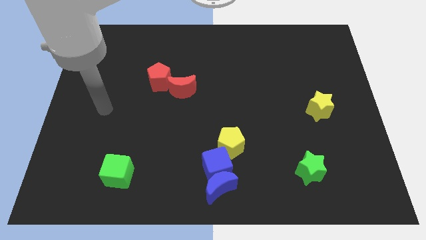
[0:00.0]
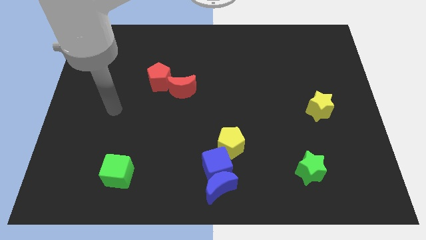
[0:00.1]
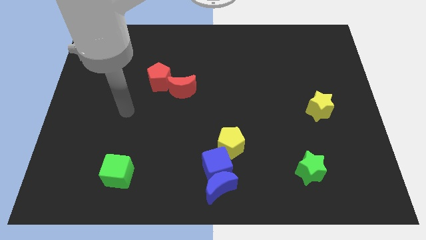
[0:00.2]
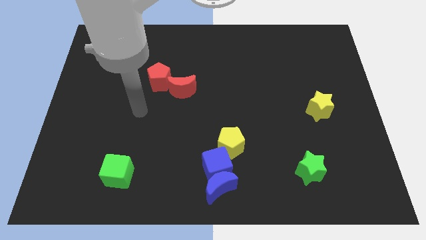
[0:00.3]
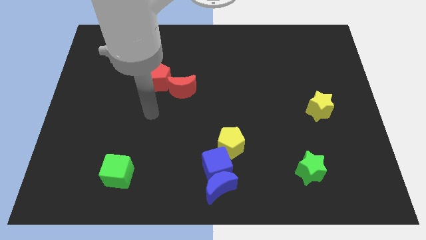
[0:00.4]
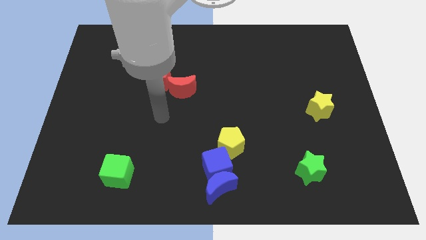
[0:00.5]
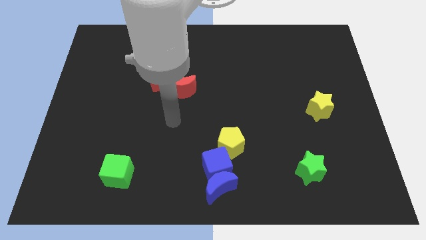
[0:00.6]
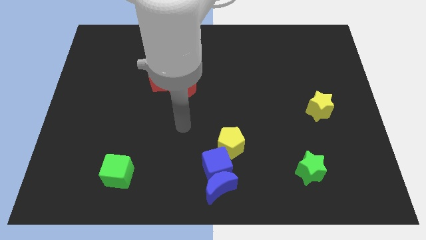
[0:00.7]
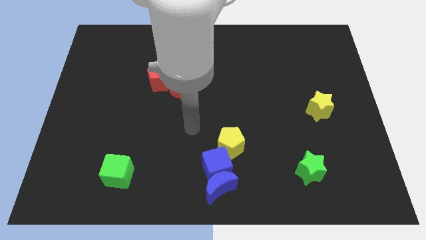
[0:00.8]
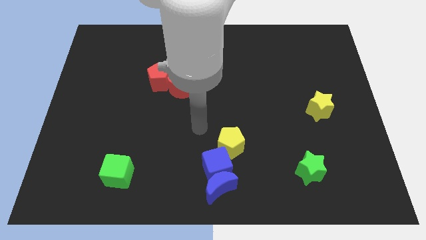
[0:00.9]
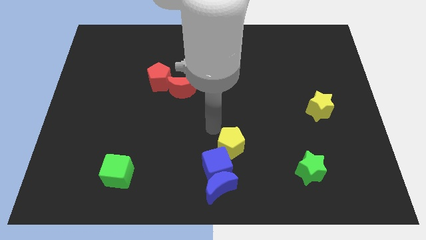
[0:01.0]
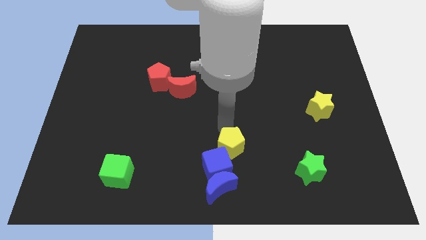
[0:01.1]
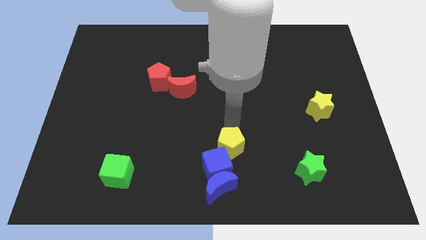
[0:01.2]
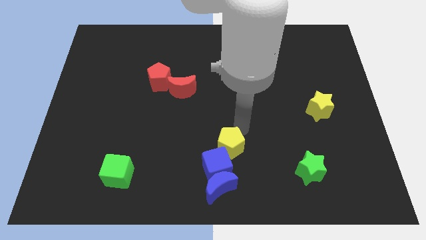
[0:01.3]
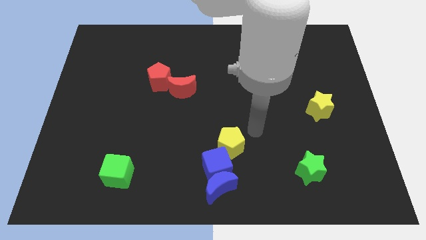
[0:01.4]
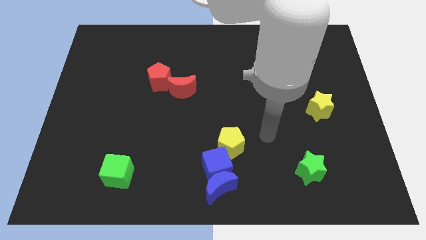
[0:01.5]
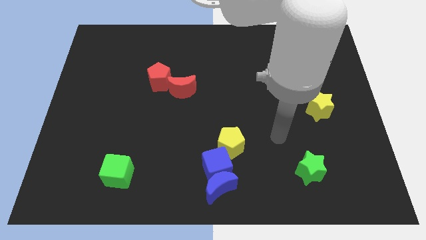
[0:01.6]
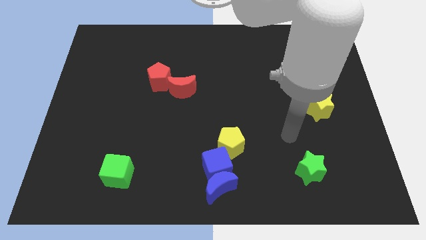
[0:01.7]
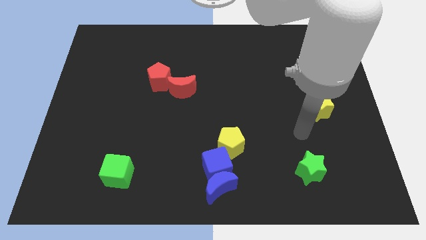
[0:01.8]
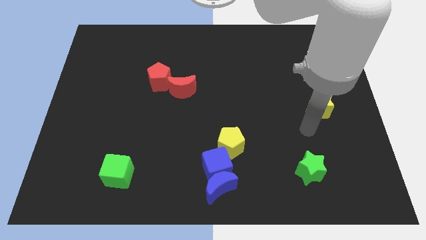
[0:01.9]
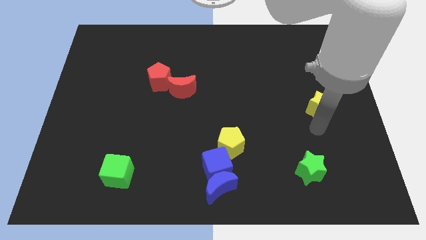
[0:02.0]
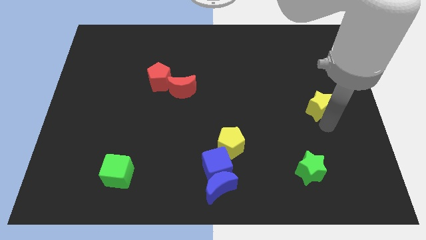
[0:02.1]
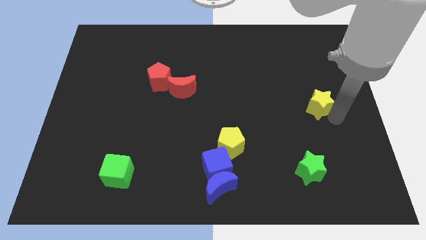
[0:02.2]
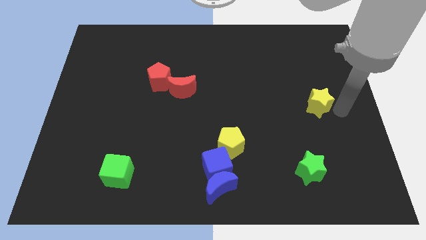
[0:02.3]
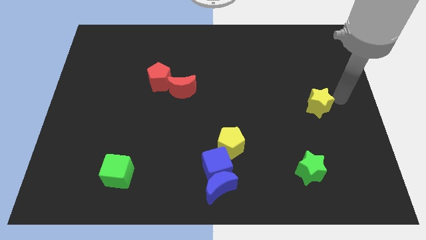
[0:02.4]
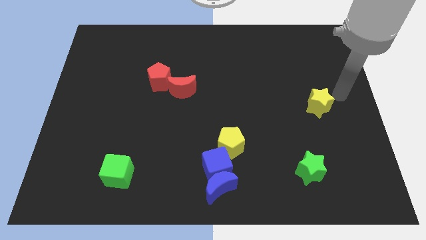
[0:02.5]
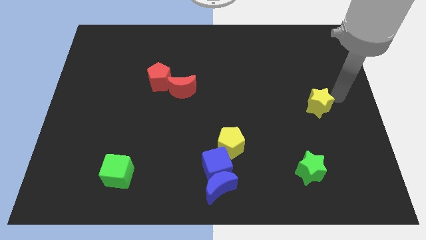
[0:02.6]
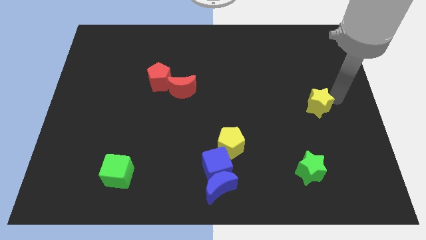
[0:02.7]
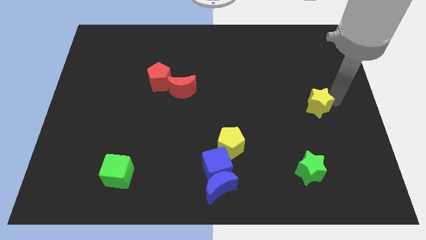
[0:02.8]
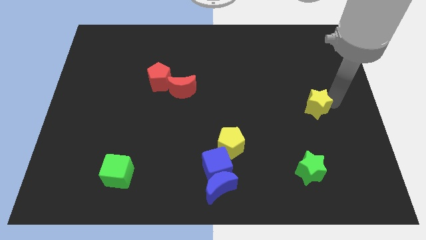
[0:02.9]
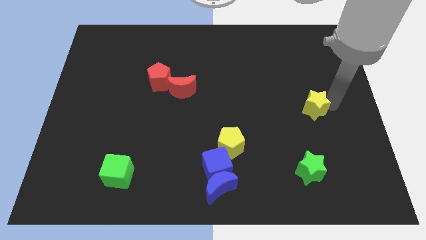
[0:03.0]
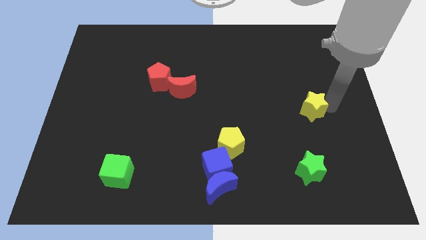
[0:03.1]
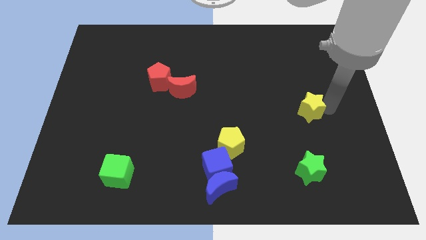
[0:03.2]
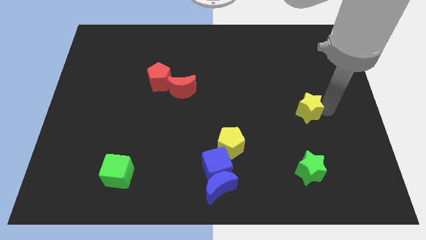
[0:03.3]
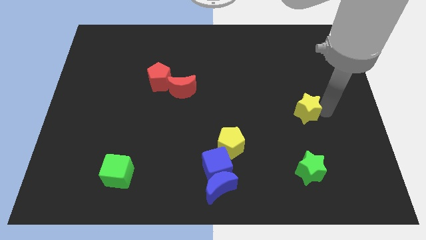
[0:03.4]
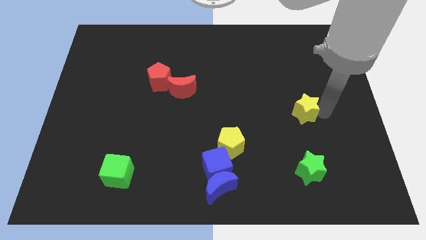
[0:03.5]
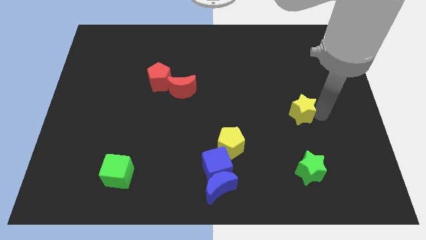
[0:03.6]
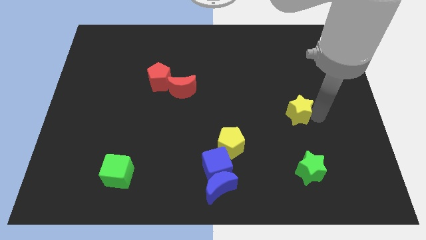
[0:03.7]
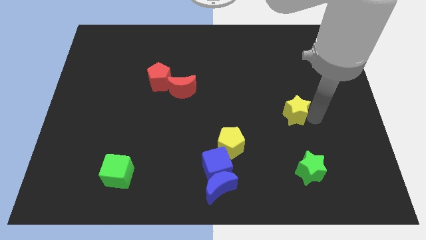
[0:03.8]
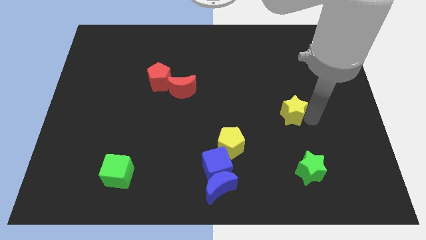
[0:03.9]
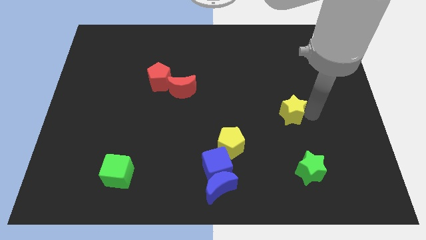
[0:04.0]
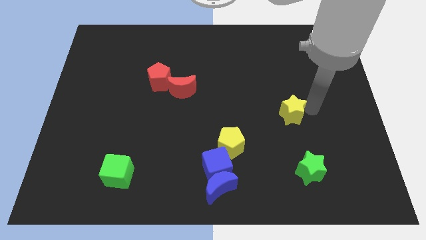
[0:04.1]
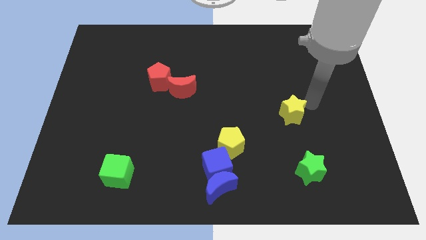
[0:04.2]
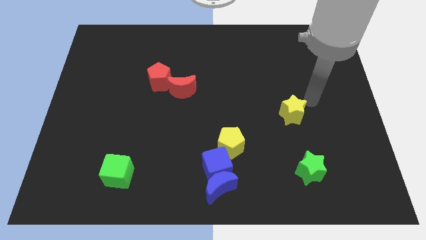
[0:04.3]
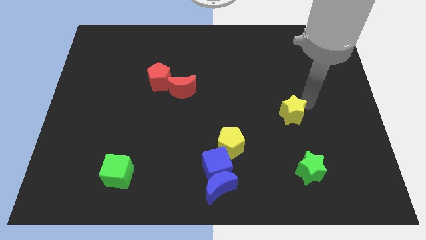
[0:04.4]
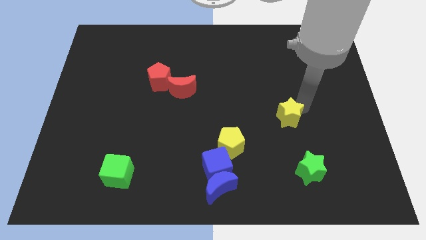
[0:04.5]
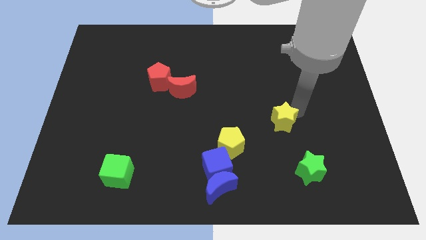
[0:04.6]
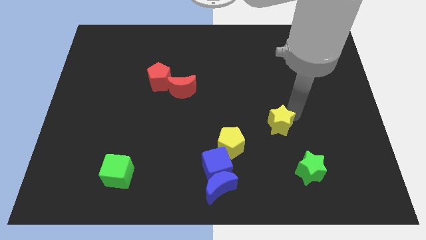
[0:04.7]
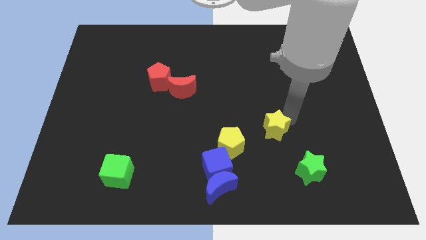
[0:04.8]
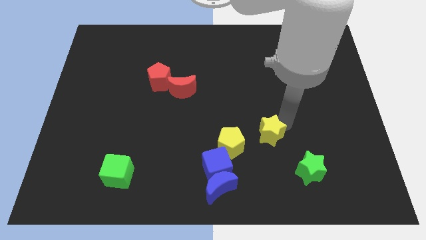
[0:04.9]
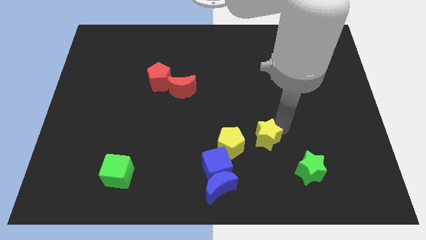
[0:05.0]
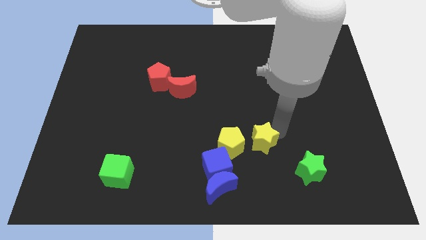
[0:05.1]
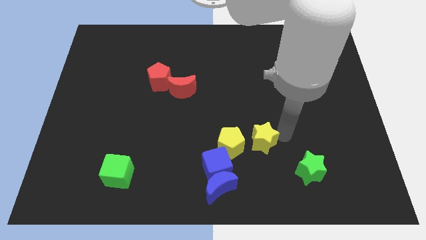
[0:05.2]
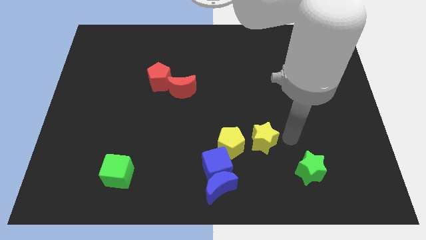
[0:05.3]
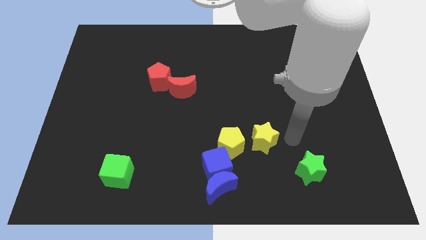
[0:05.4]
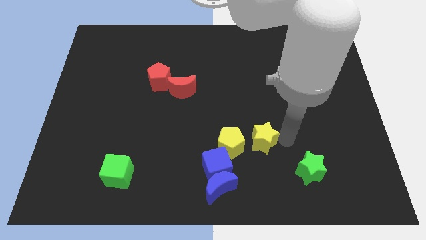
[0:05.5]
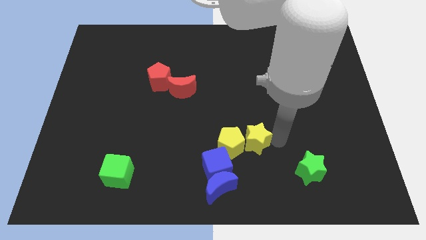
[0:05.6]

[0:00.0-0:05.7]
move the yellow star towards the yellow pentagon

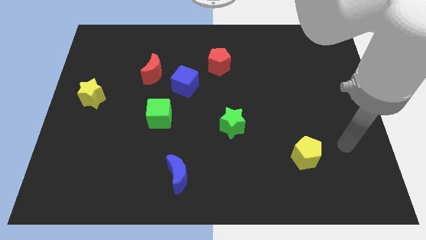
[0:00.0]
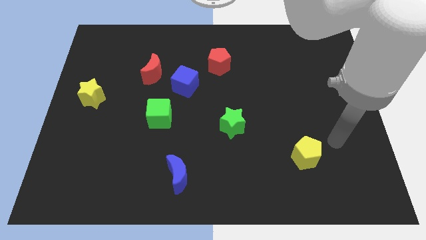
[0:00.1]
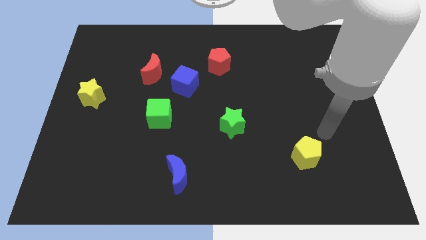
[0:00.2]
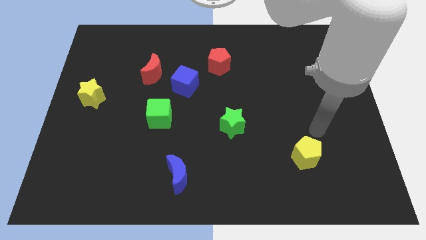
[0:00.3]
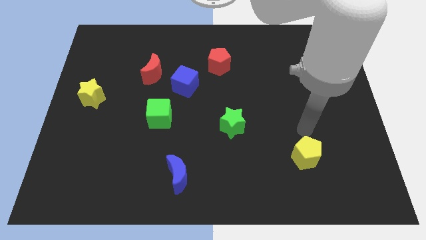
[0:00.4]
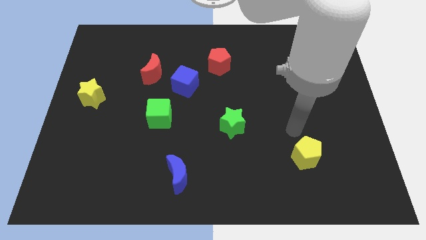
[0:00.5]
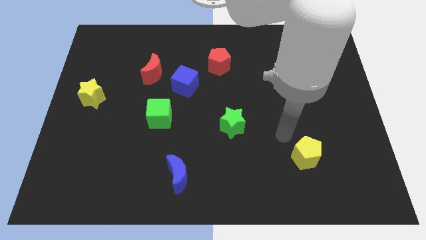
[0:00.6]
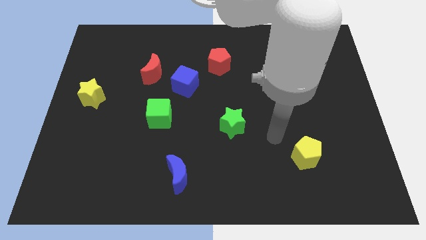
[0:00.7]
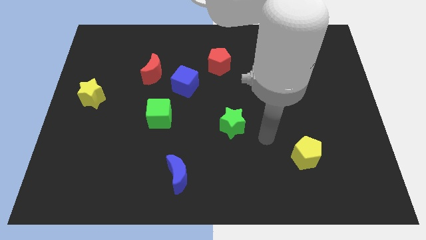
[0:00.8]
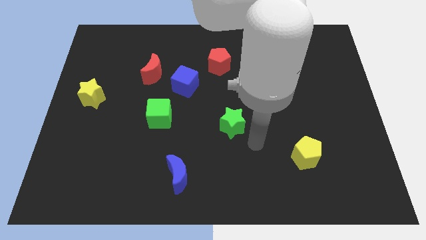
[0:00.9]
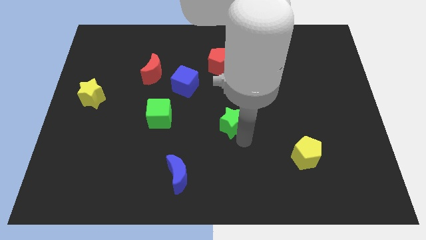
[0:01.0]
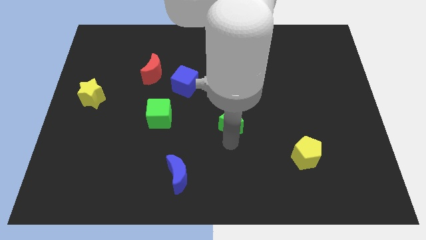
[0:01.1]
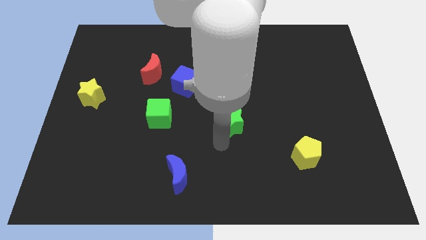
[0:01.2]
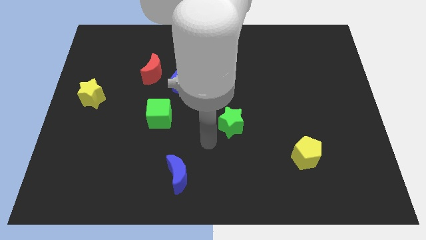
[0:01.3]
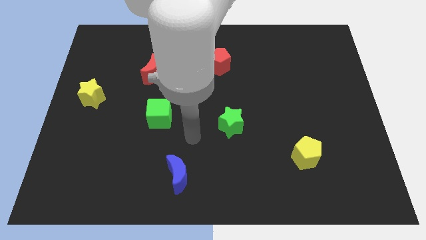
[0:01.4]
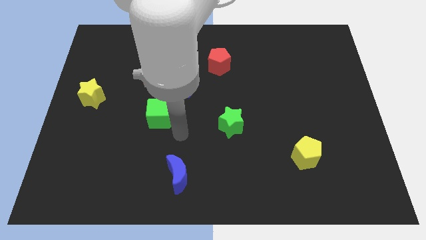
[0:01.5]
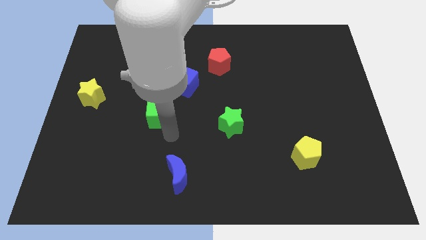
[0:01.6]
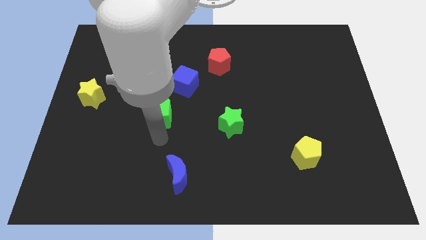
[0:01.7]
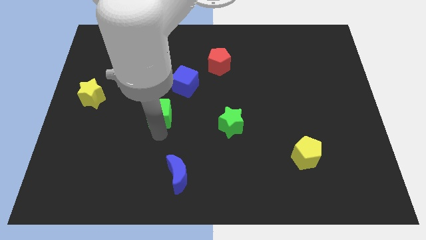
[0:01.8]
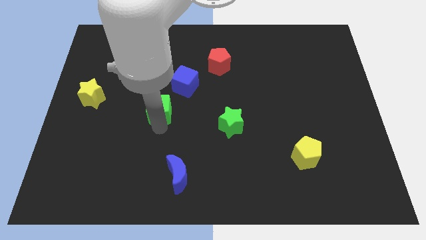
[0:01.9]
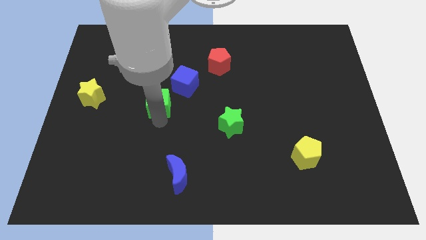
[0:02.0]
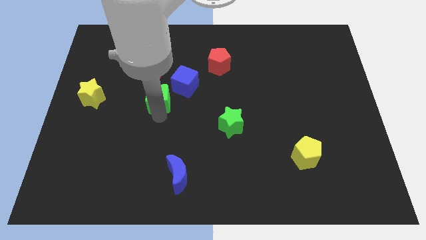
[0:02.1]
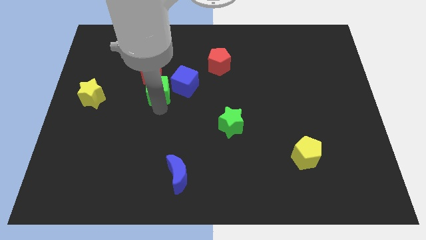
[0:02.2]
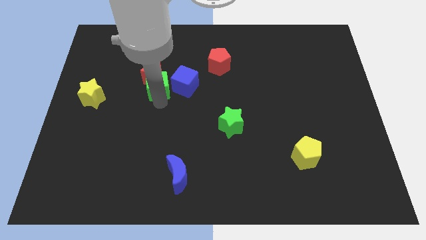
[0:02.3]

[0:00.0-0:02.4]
slide the green cube to the red moon

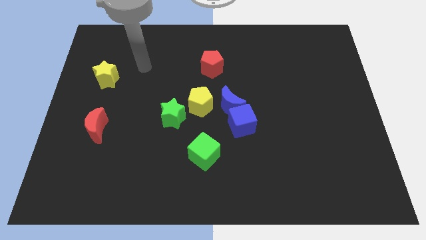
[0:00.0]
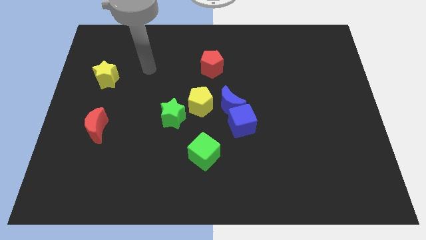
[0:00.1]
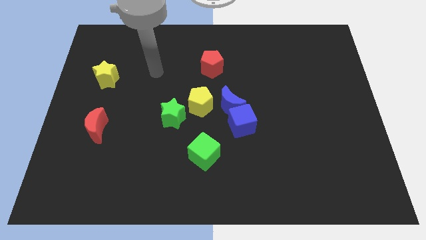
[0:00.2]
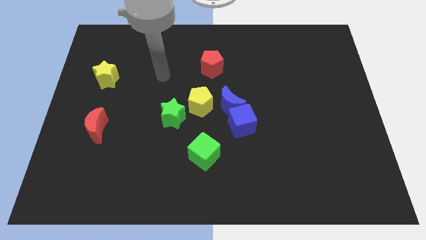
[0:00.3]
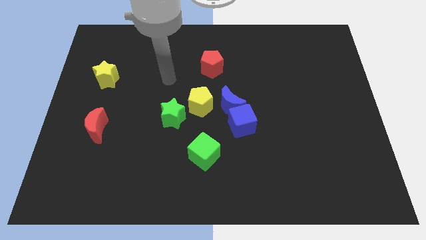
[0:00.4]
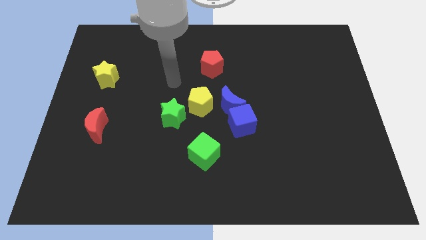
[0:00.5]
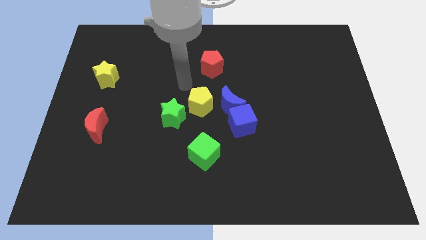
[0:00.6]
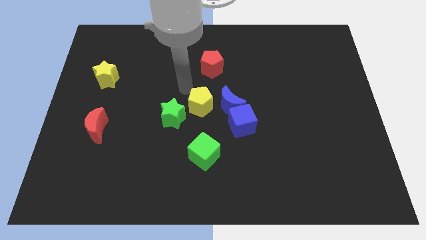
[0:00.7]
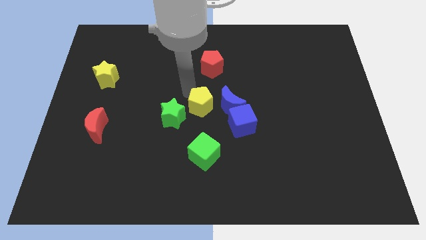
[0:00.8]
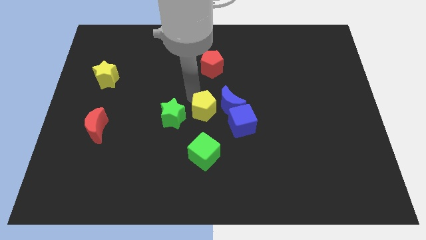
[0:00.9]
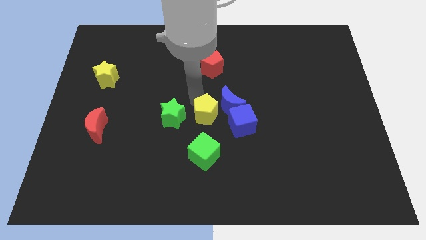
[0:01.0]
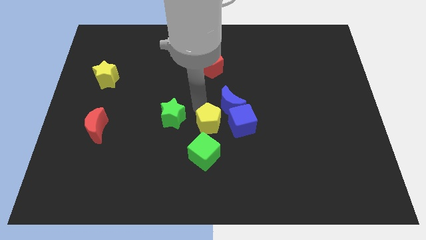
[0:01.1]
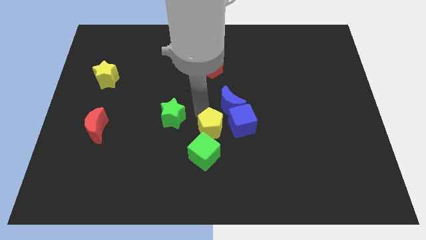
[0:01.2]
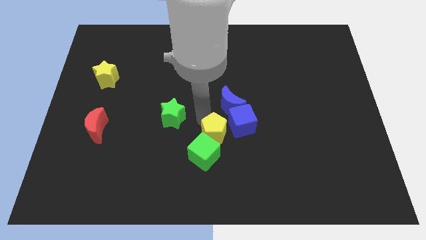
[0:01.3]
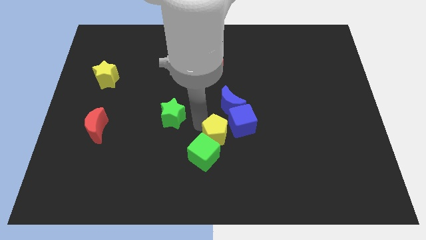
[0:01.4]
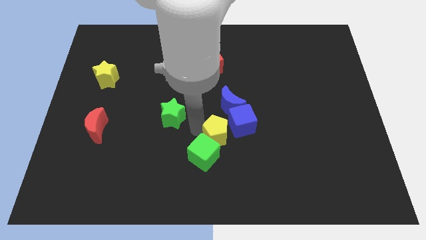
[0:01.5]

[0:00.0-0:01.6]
put the yellow pentagon next to the blue cube
